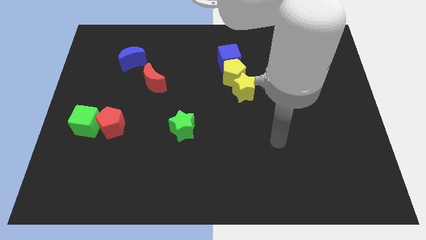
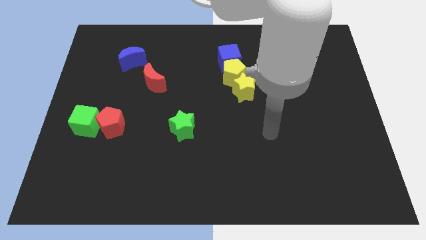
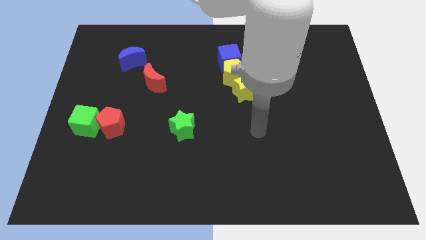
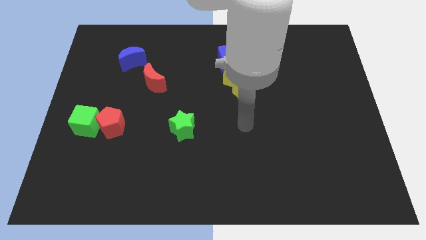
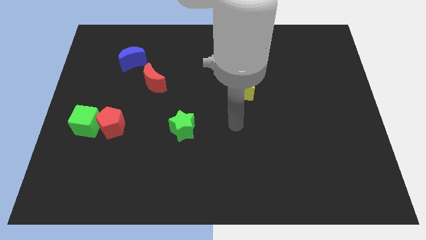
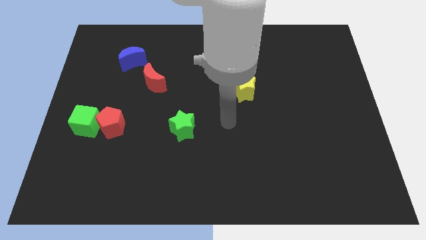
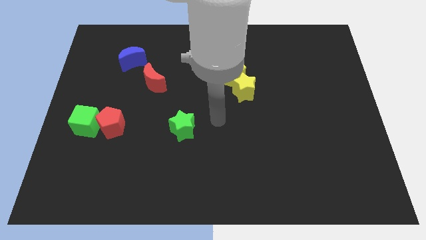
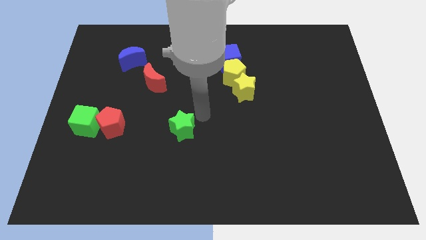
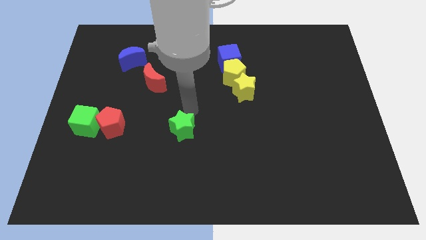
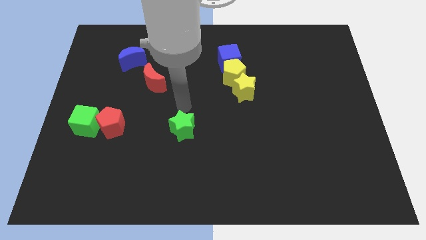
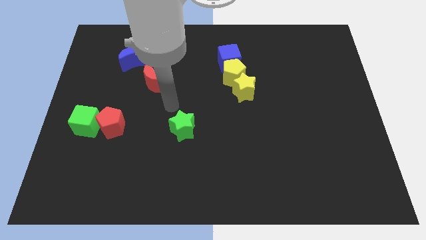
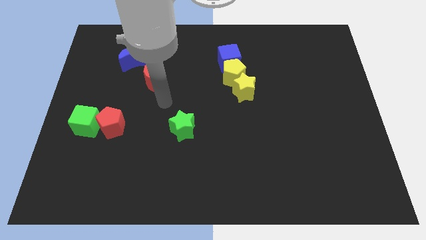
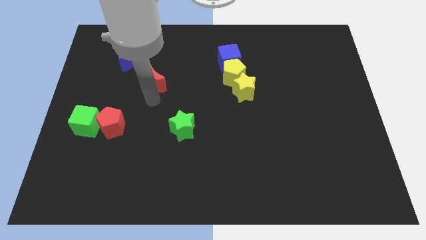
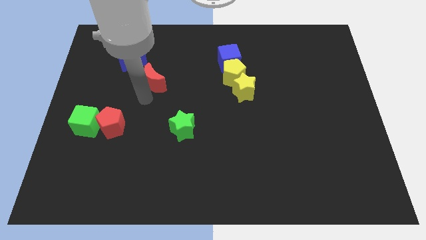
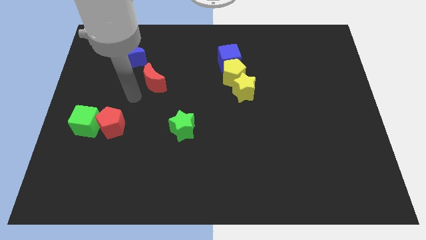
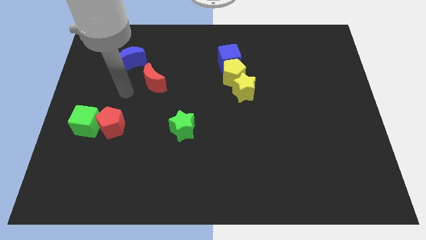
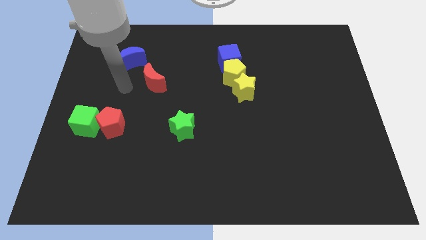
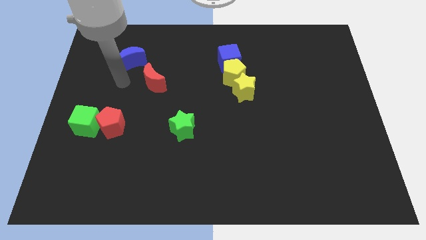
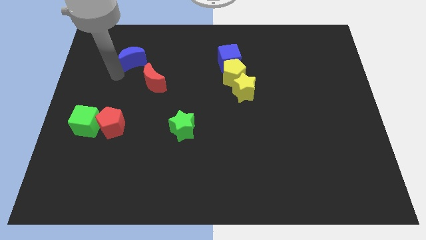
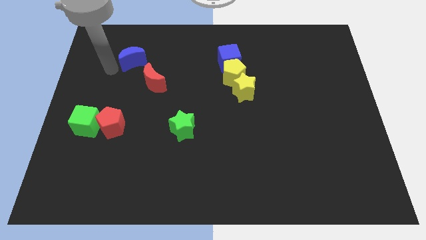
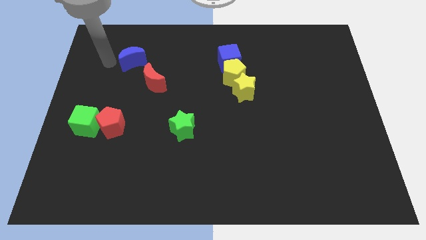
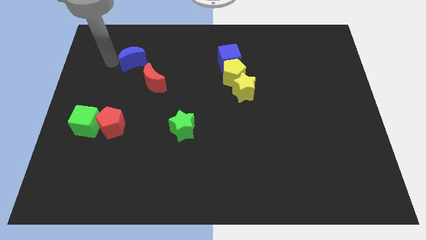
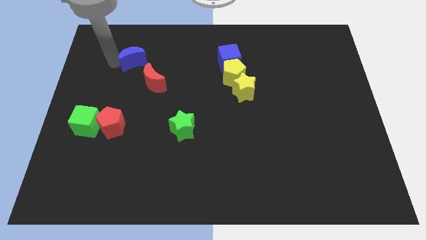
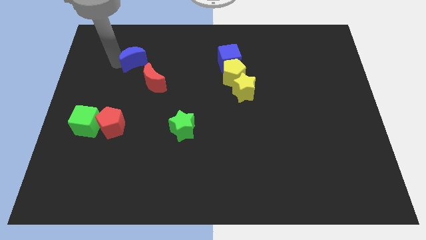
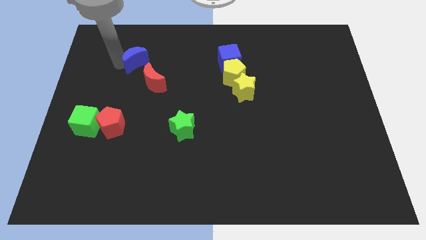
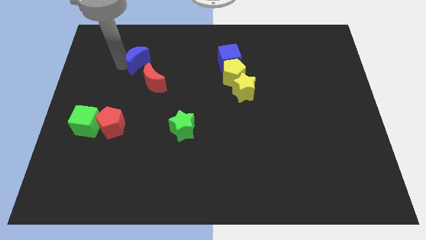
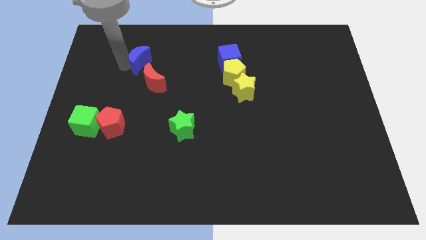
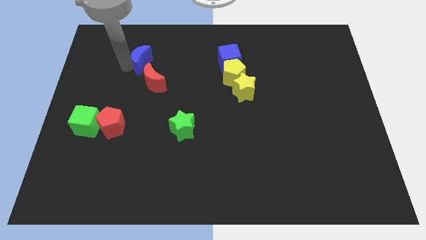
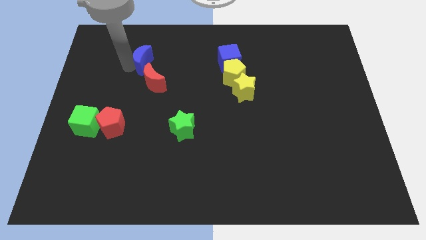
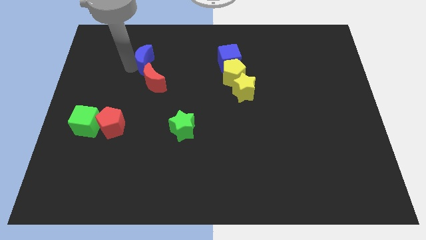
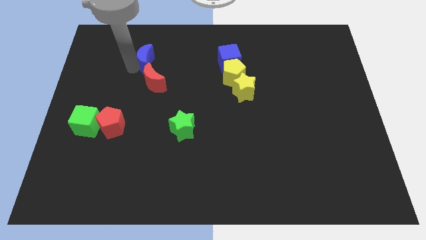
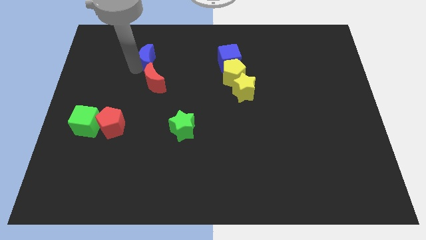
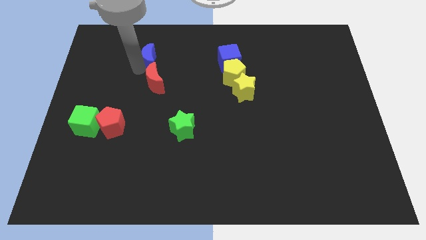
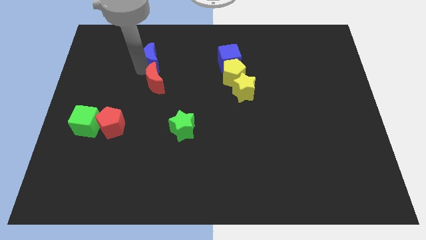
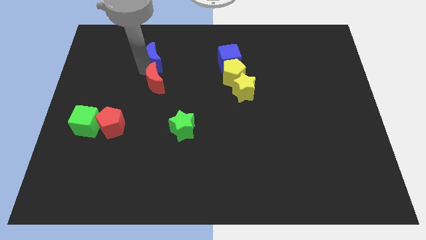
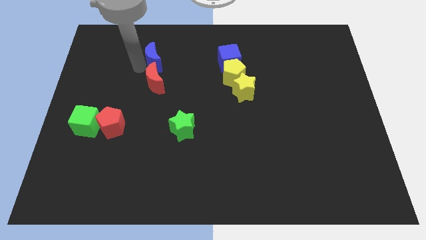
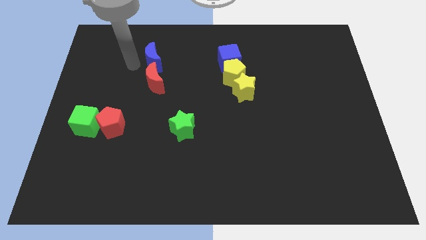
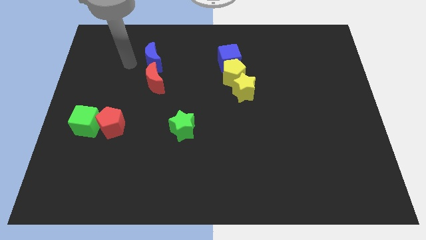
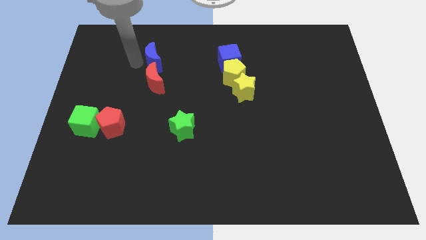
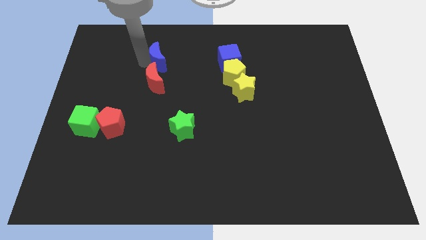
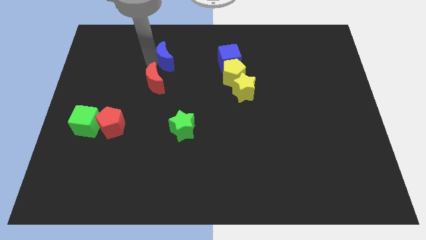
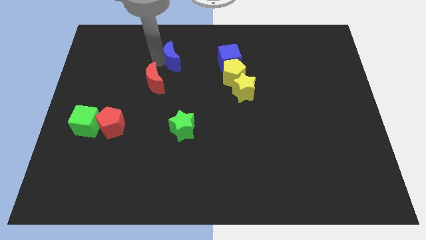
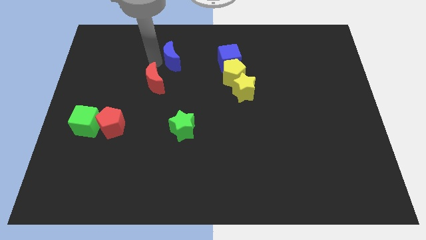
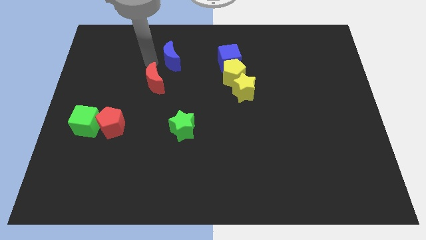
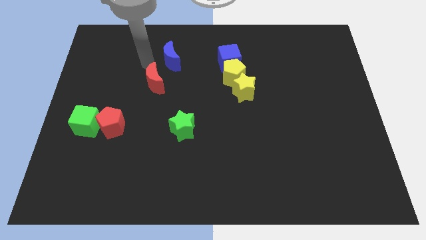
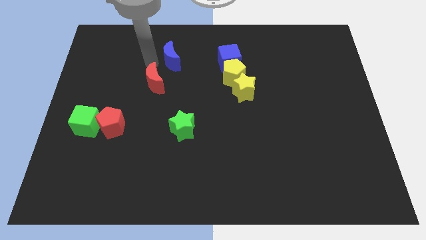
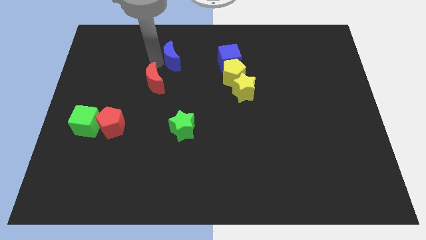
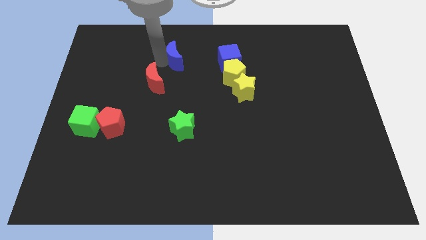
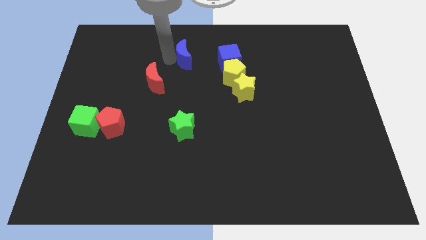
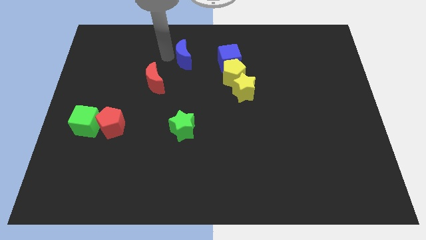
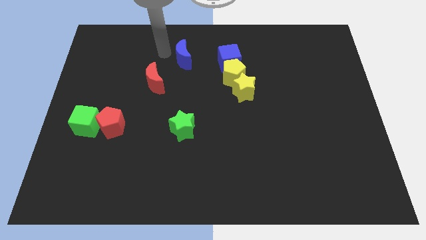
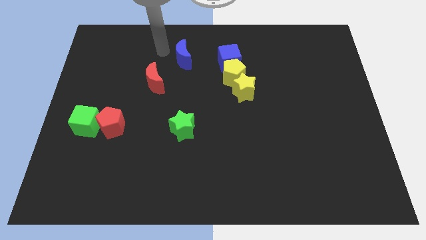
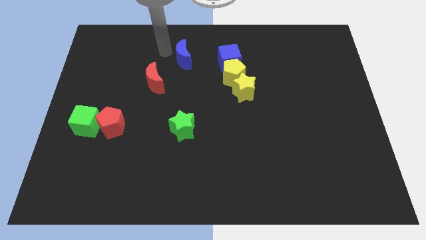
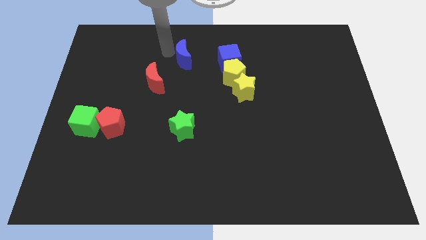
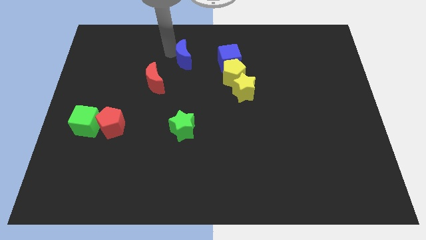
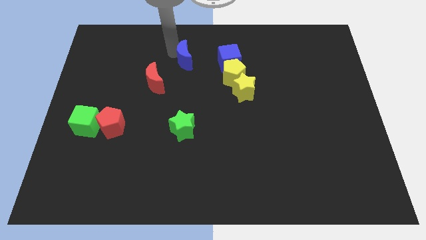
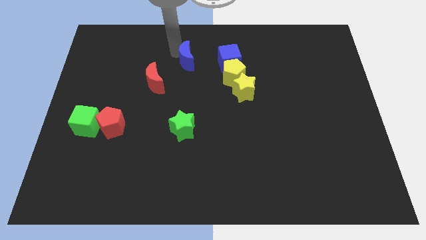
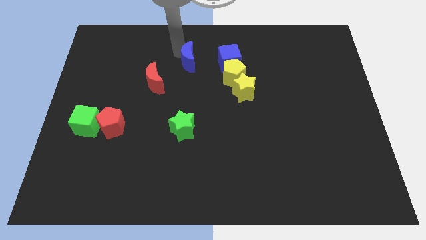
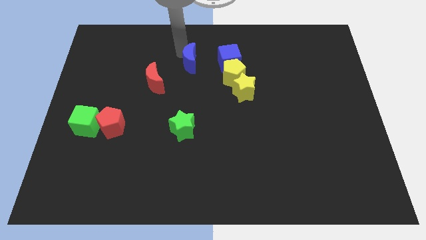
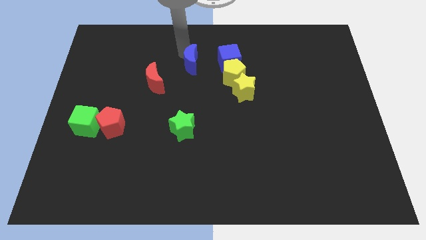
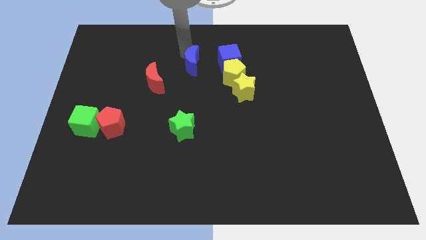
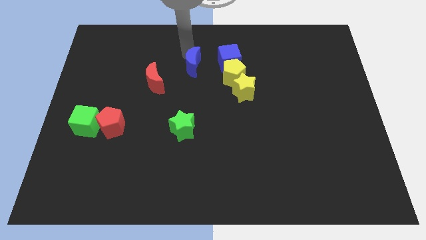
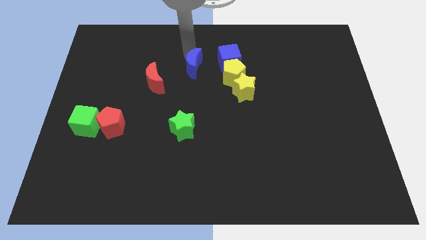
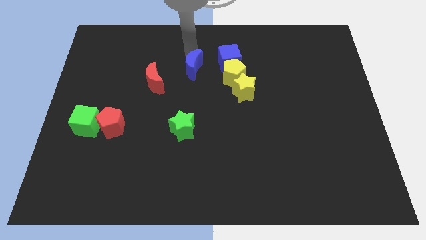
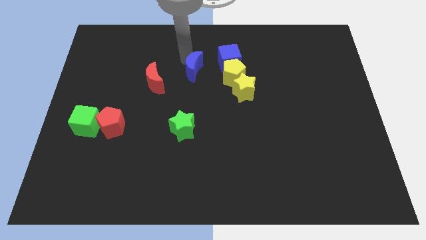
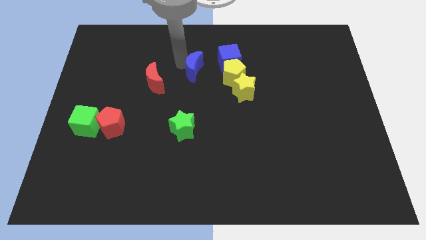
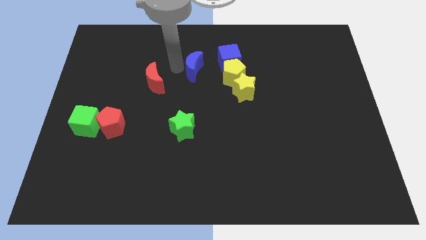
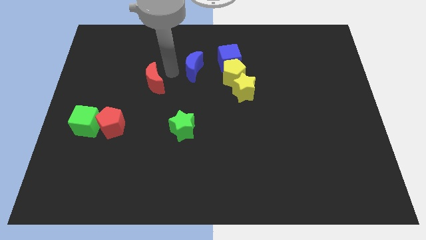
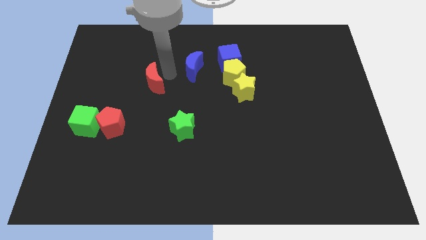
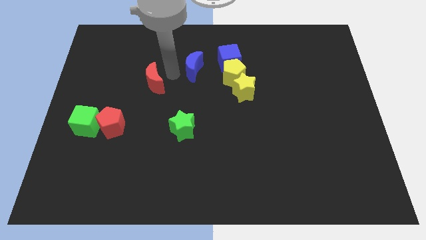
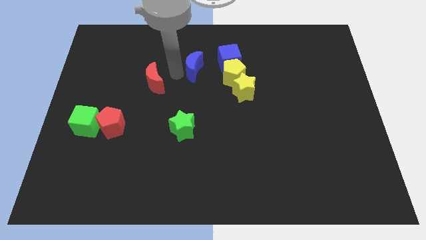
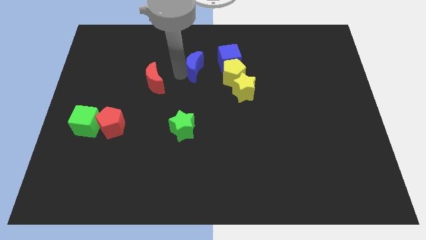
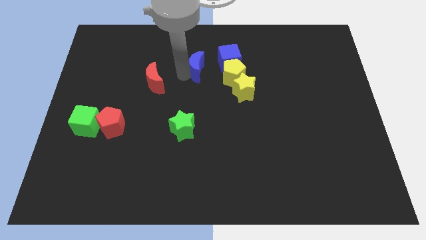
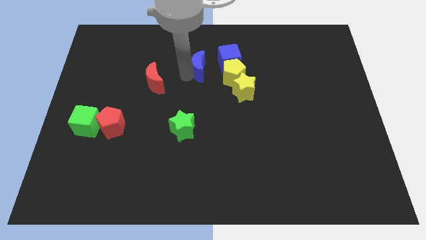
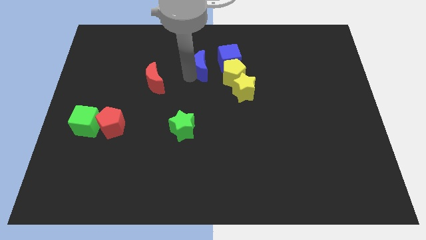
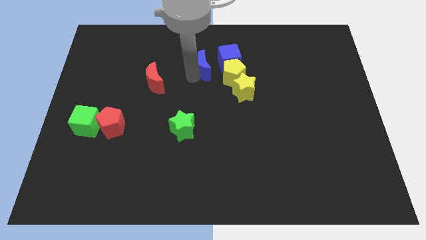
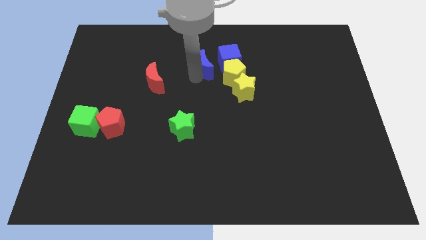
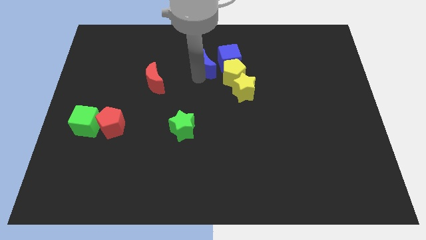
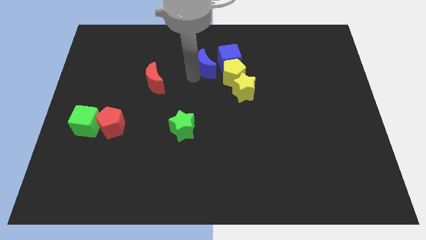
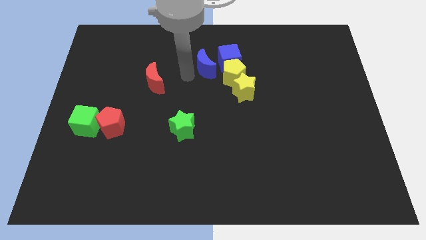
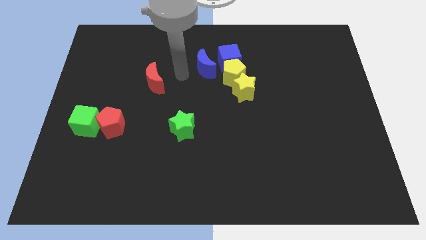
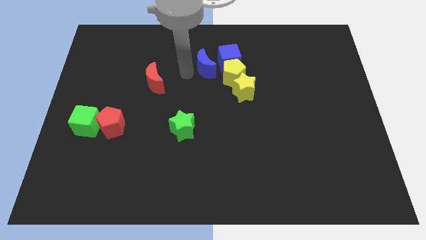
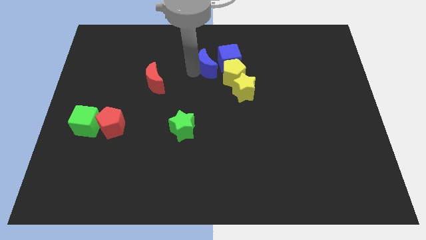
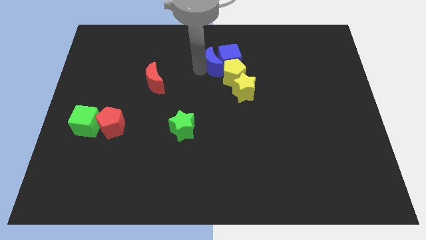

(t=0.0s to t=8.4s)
push the blue moon close to the blue cube
